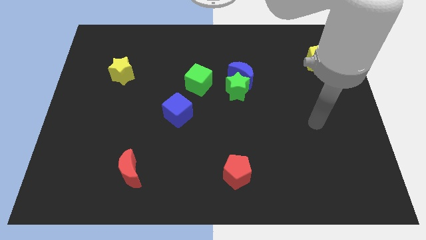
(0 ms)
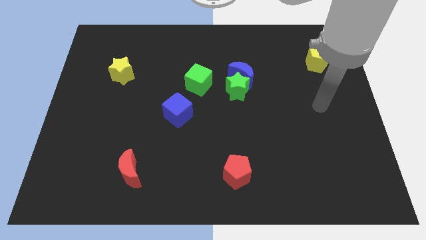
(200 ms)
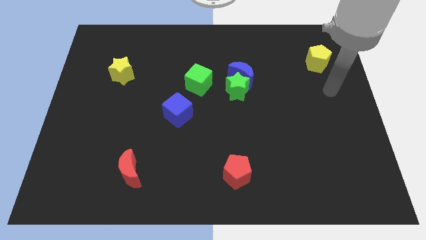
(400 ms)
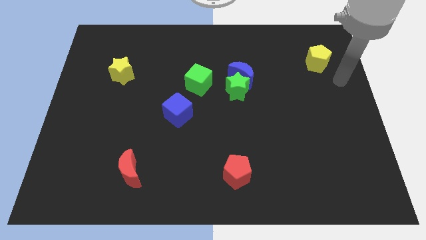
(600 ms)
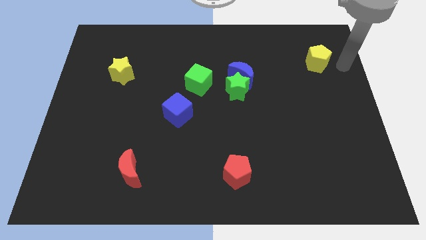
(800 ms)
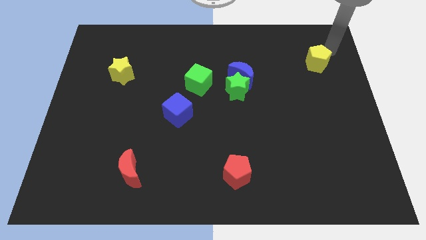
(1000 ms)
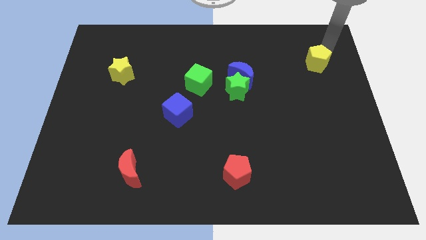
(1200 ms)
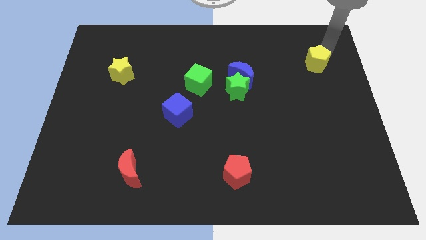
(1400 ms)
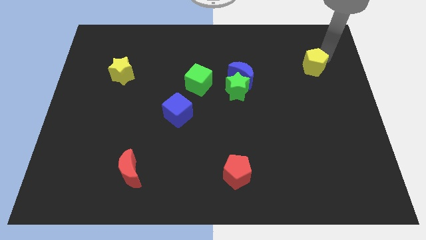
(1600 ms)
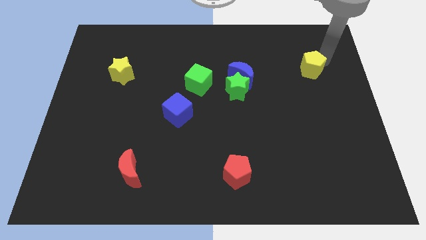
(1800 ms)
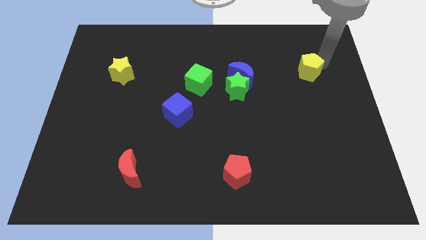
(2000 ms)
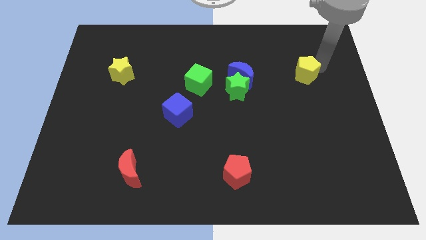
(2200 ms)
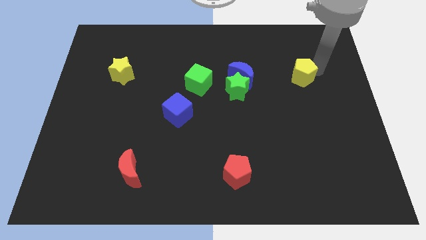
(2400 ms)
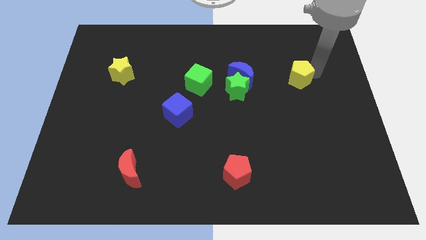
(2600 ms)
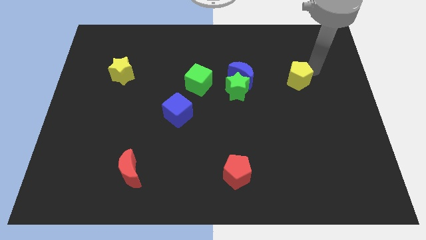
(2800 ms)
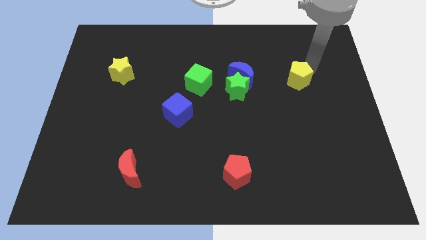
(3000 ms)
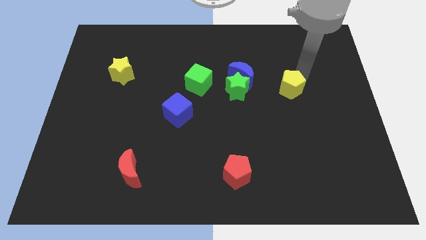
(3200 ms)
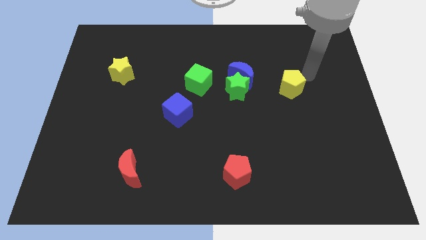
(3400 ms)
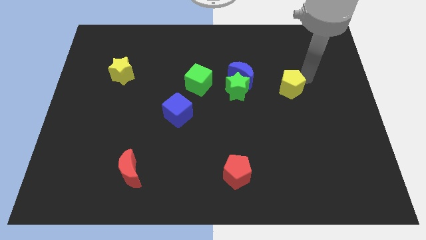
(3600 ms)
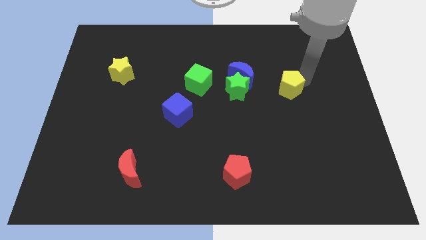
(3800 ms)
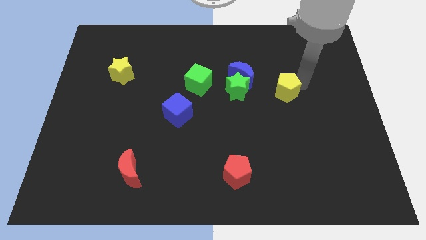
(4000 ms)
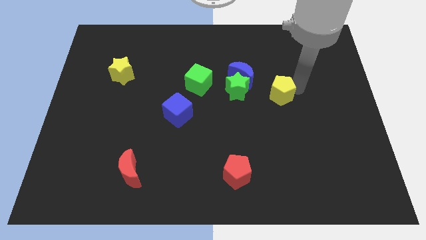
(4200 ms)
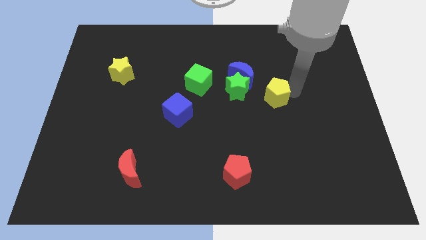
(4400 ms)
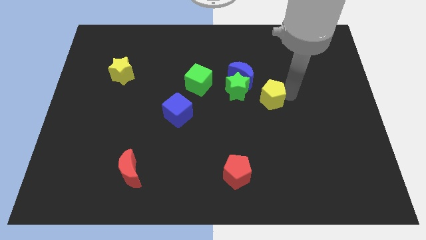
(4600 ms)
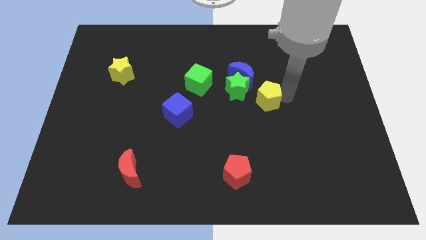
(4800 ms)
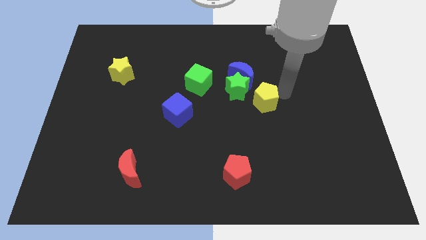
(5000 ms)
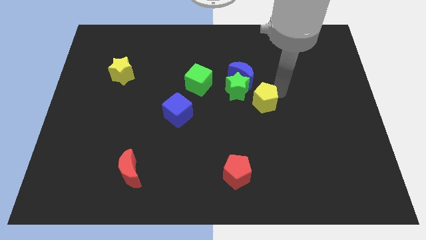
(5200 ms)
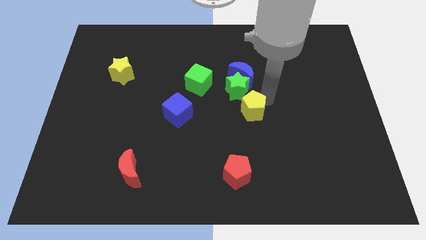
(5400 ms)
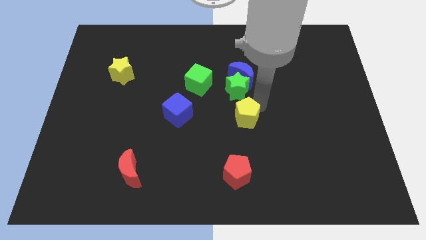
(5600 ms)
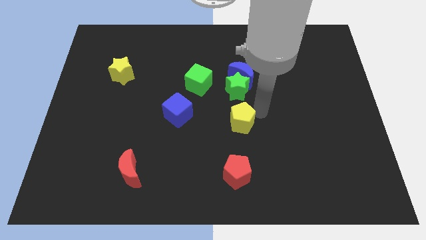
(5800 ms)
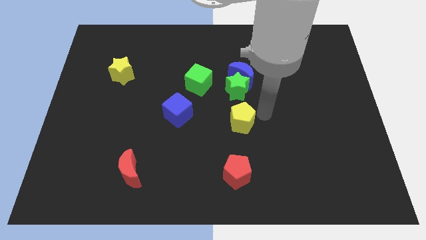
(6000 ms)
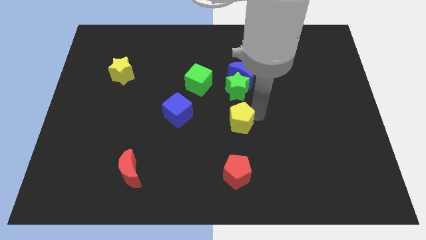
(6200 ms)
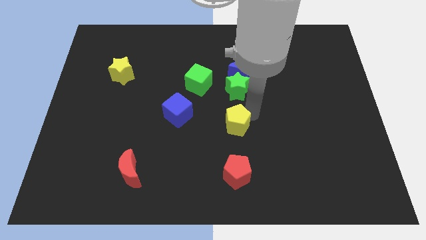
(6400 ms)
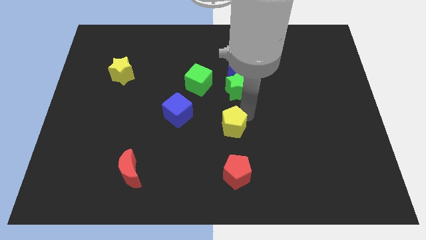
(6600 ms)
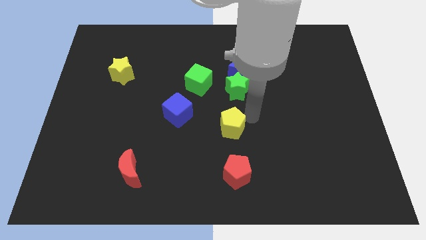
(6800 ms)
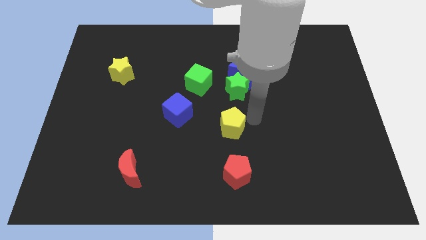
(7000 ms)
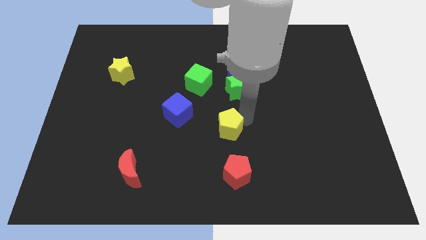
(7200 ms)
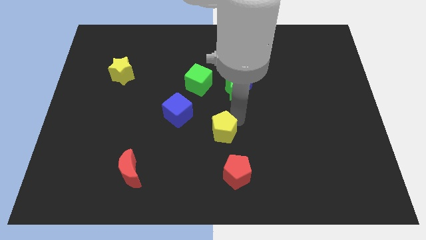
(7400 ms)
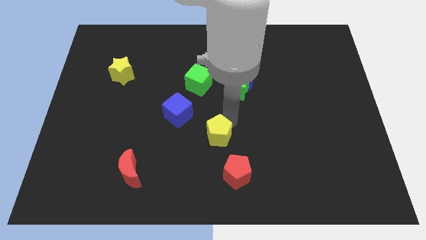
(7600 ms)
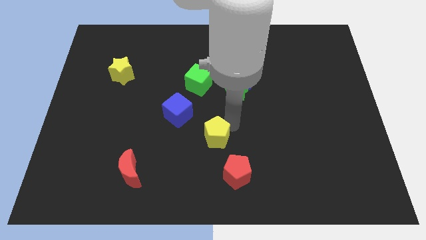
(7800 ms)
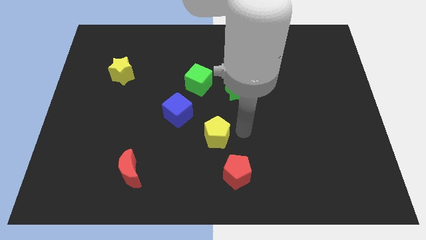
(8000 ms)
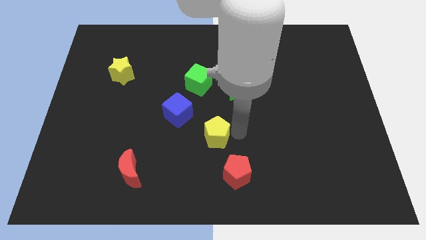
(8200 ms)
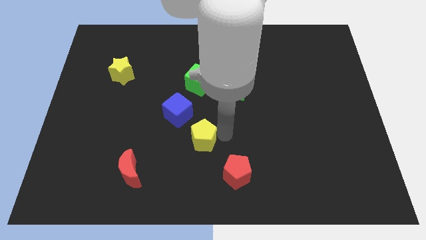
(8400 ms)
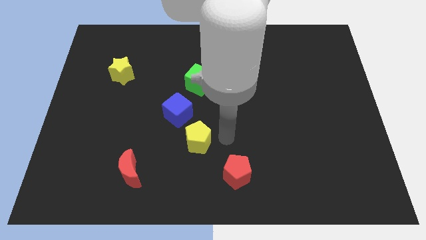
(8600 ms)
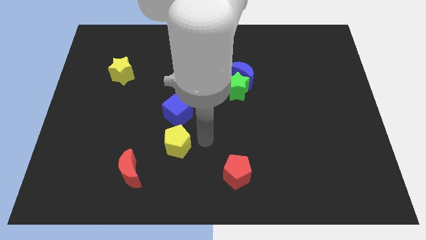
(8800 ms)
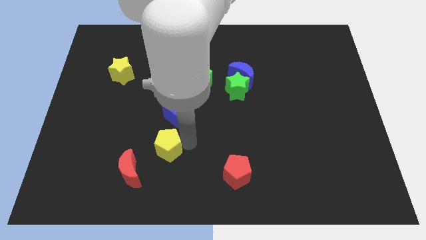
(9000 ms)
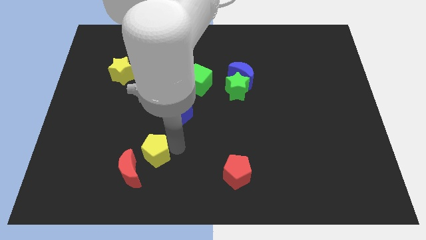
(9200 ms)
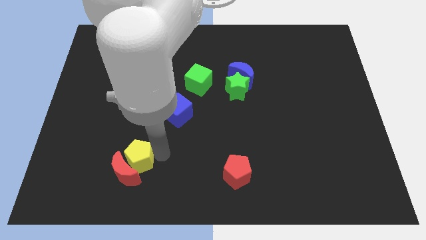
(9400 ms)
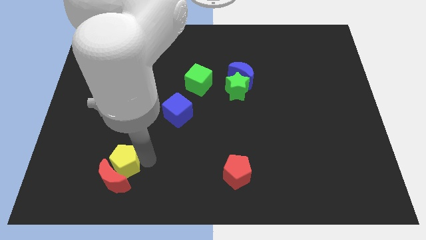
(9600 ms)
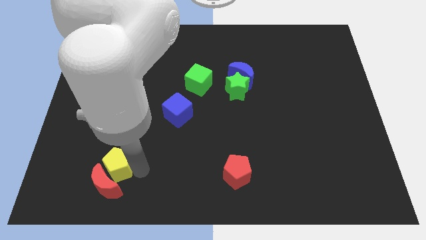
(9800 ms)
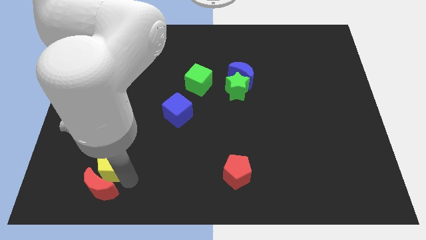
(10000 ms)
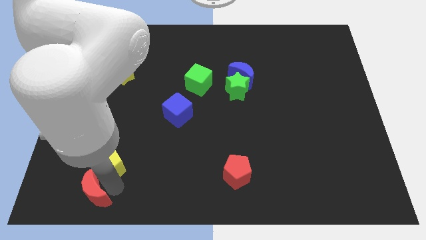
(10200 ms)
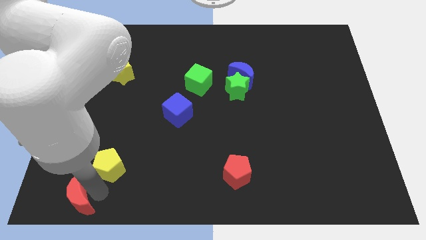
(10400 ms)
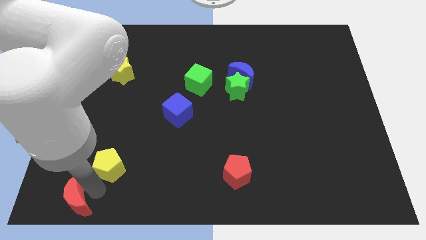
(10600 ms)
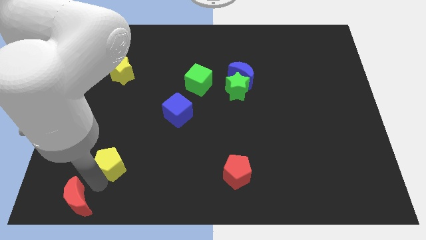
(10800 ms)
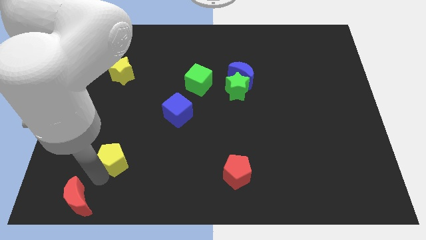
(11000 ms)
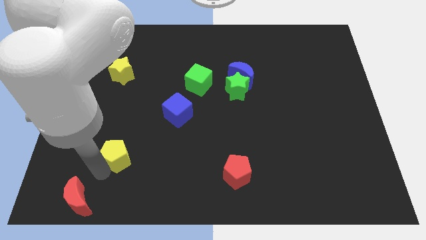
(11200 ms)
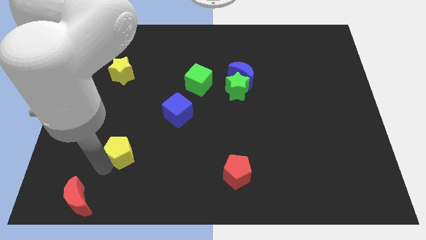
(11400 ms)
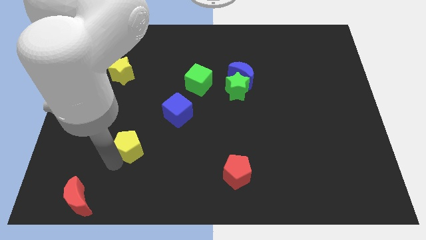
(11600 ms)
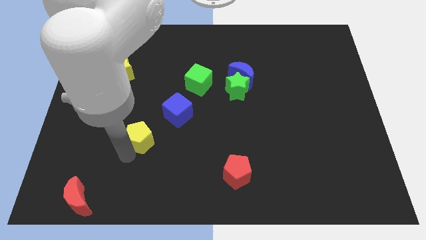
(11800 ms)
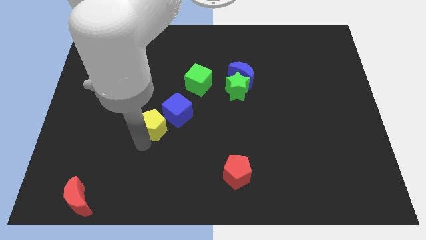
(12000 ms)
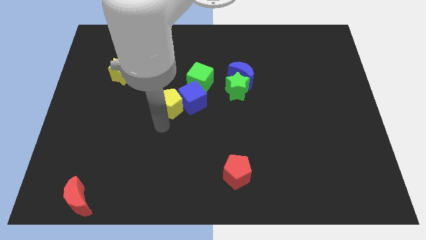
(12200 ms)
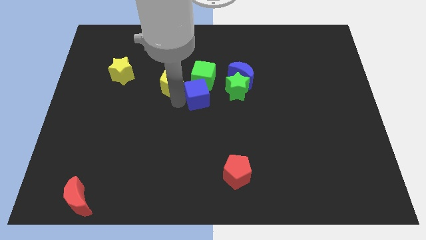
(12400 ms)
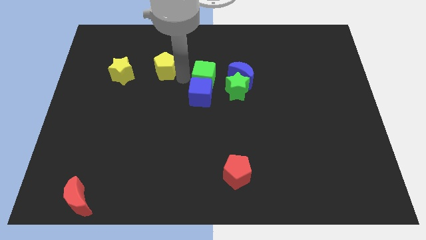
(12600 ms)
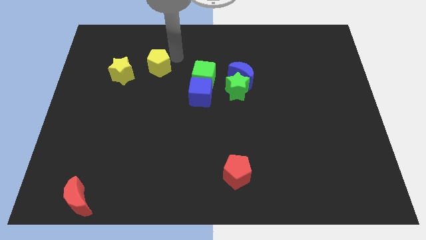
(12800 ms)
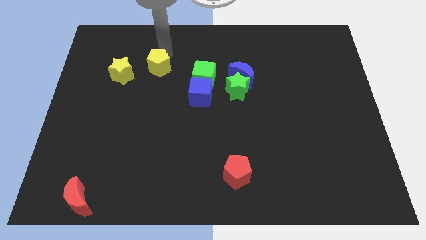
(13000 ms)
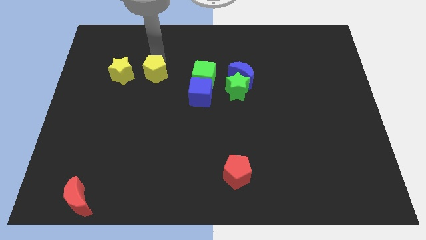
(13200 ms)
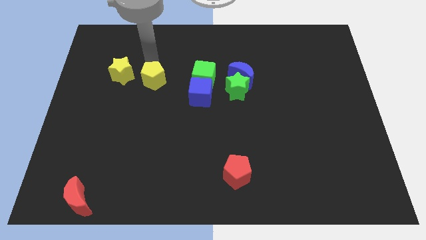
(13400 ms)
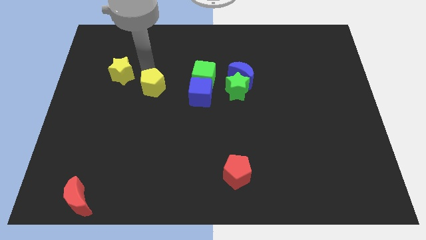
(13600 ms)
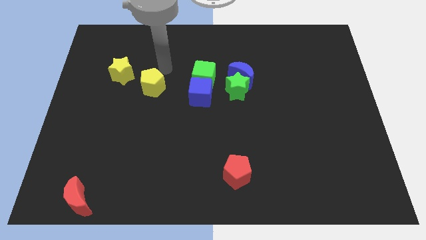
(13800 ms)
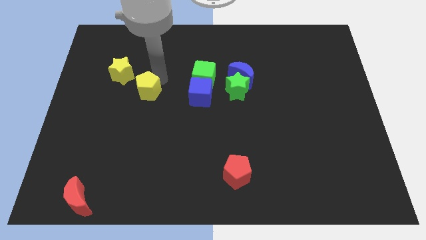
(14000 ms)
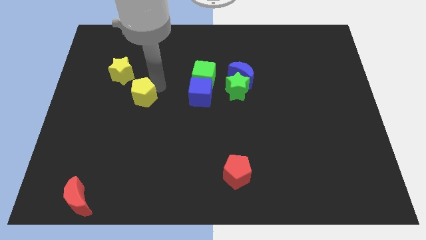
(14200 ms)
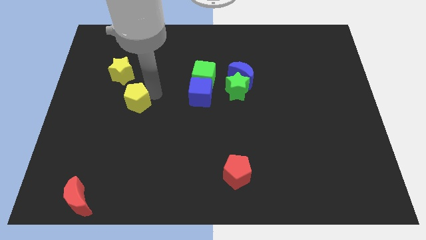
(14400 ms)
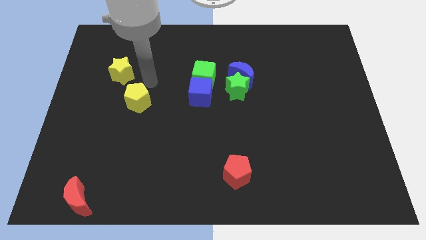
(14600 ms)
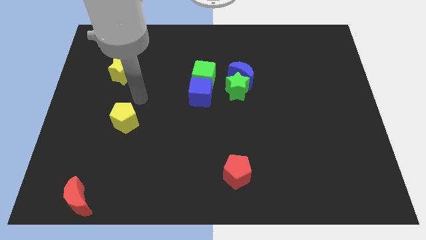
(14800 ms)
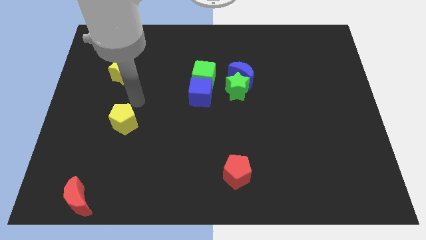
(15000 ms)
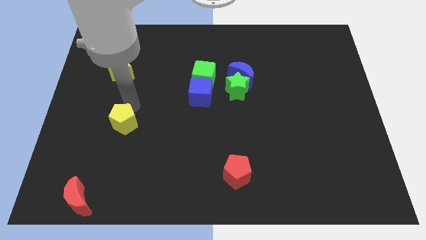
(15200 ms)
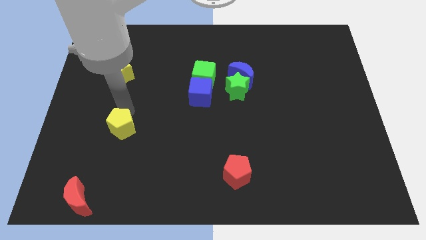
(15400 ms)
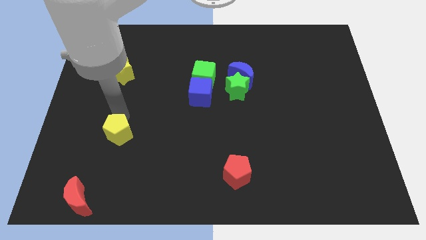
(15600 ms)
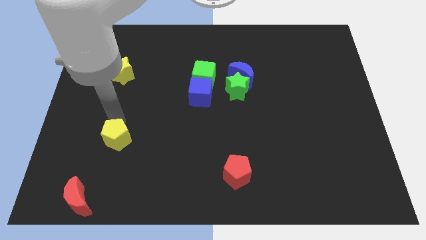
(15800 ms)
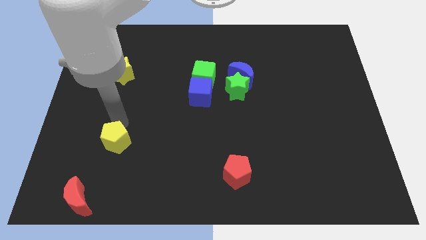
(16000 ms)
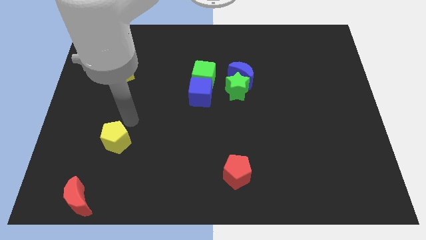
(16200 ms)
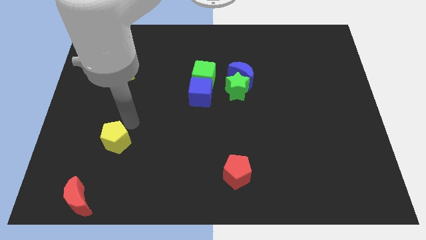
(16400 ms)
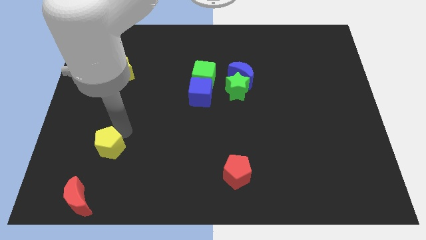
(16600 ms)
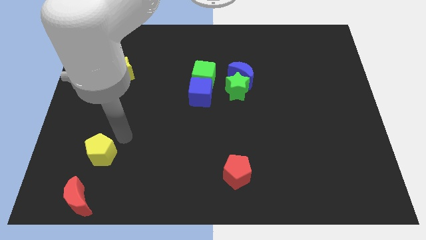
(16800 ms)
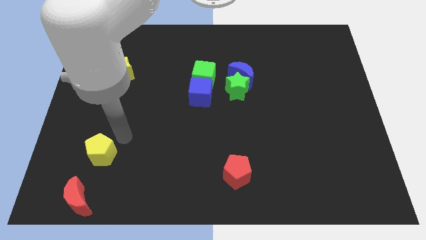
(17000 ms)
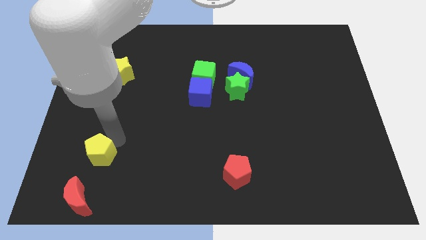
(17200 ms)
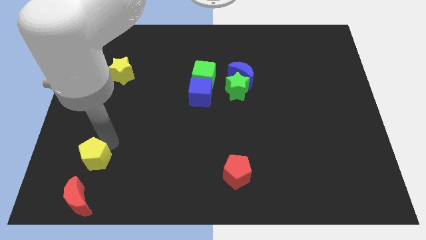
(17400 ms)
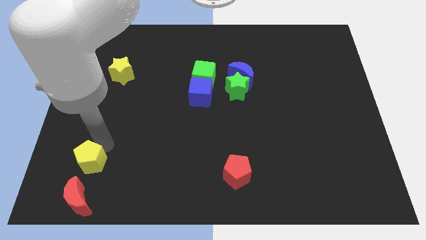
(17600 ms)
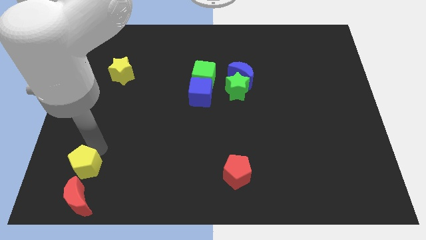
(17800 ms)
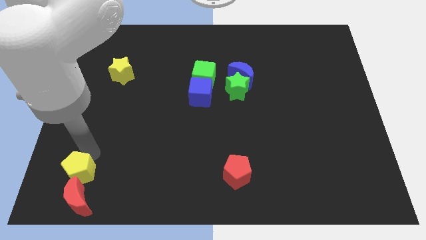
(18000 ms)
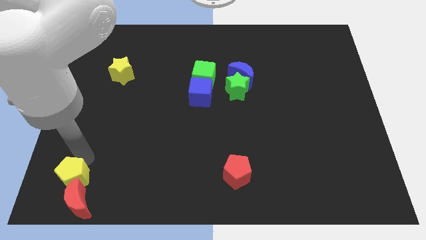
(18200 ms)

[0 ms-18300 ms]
push the yellow pentagon to the lower left corner
